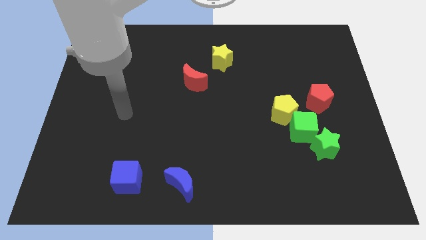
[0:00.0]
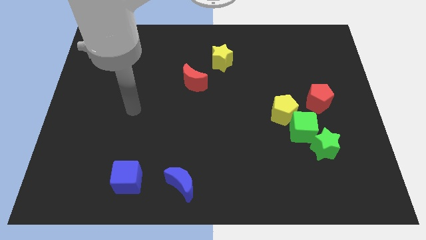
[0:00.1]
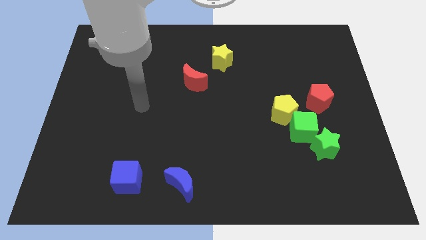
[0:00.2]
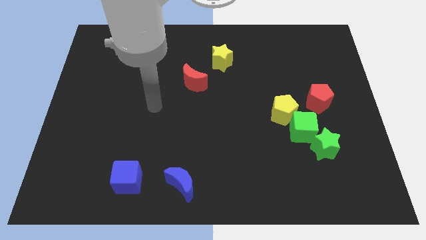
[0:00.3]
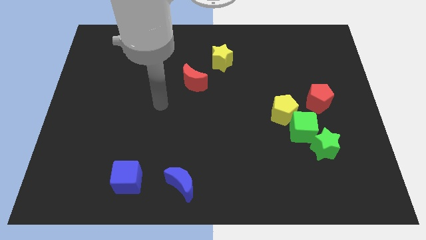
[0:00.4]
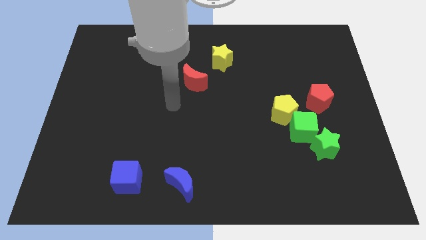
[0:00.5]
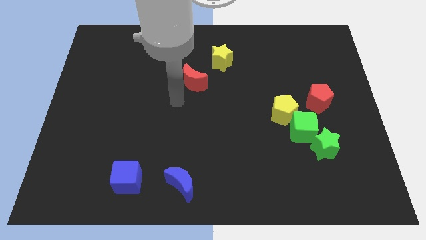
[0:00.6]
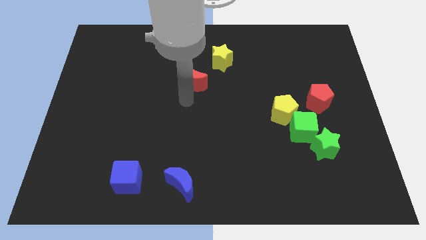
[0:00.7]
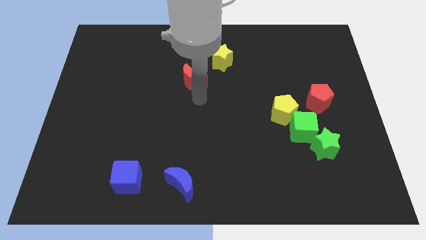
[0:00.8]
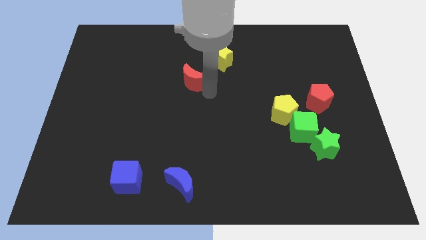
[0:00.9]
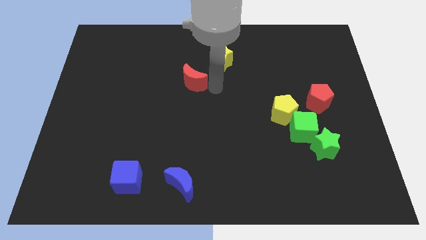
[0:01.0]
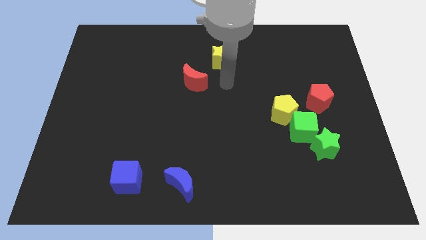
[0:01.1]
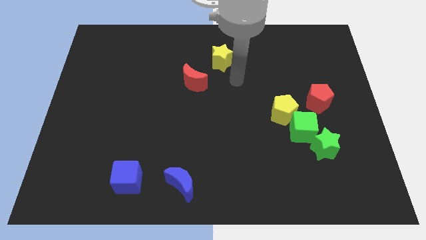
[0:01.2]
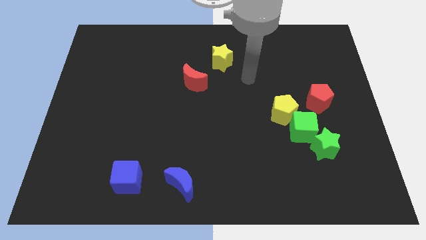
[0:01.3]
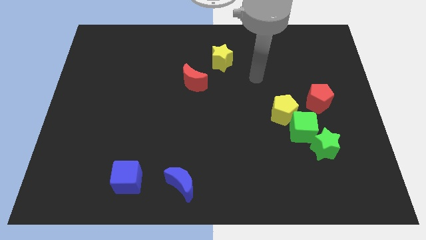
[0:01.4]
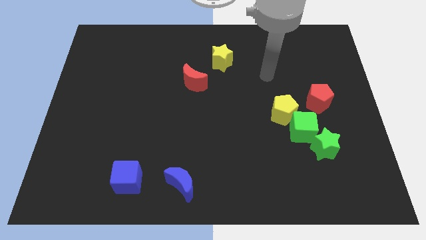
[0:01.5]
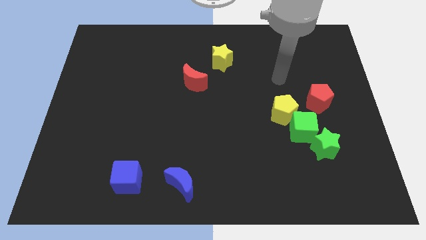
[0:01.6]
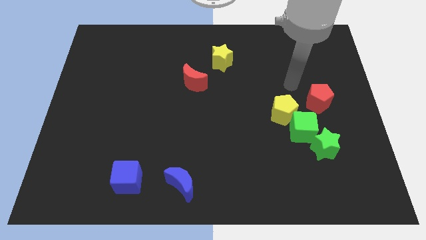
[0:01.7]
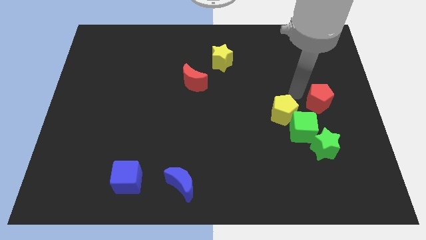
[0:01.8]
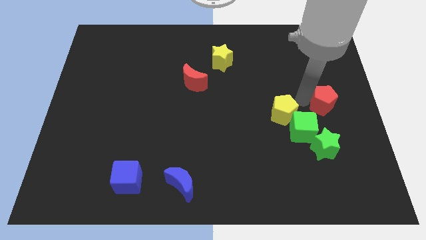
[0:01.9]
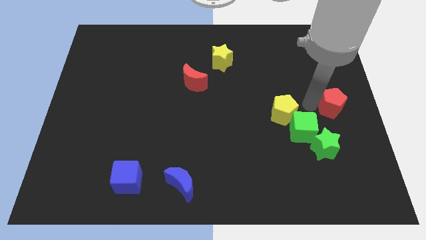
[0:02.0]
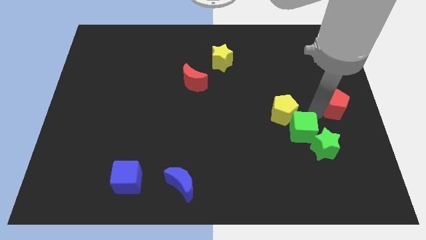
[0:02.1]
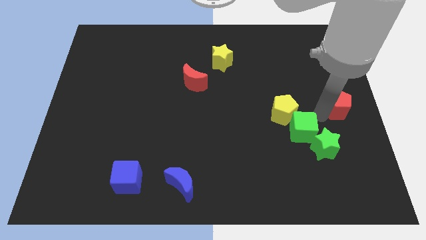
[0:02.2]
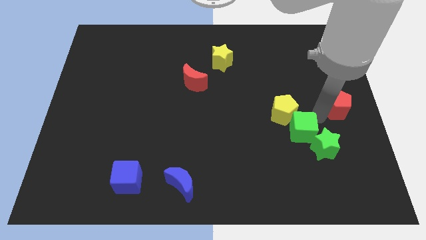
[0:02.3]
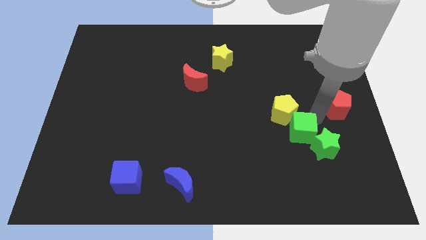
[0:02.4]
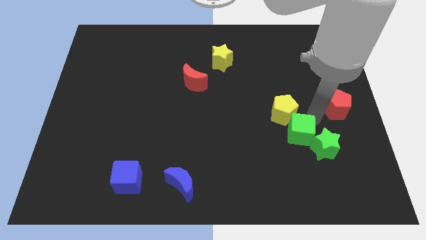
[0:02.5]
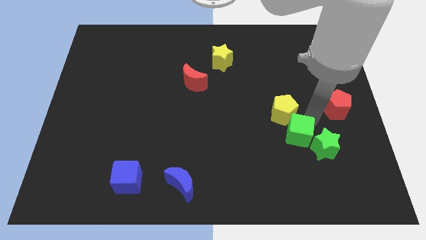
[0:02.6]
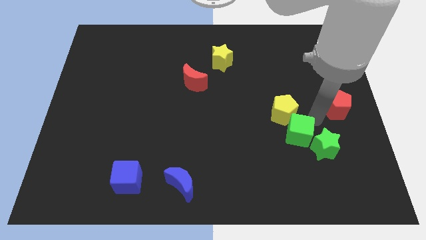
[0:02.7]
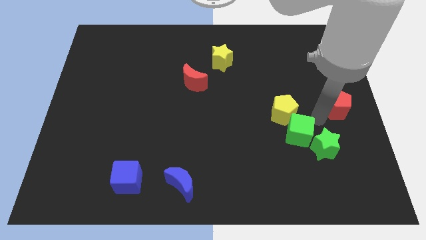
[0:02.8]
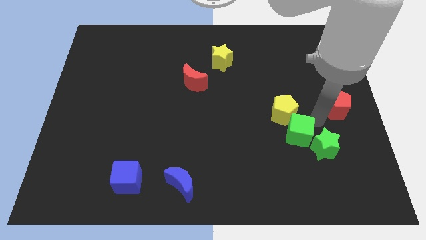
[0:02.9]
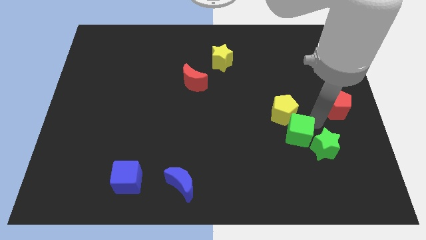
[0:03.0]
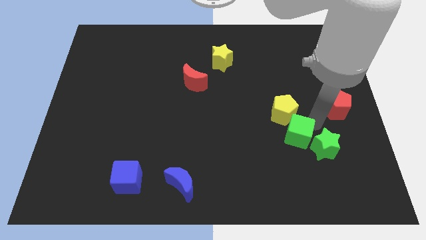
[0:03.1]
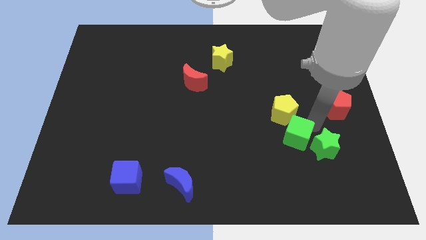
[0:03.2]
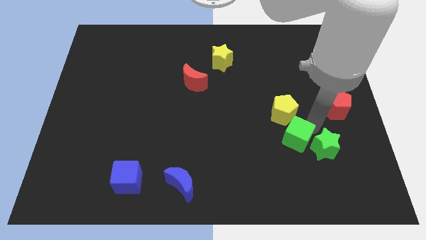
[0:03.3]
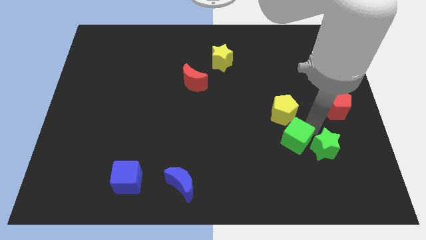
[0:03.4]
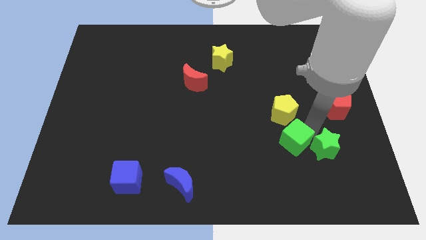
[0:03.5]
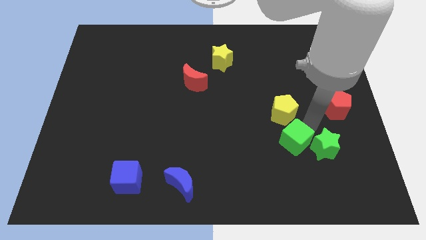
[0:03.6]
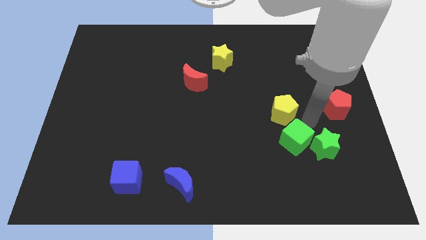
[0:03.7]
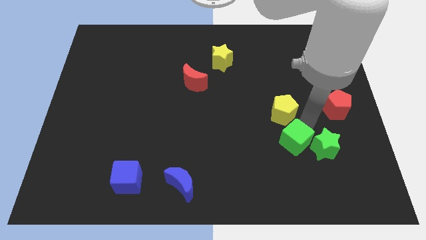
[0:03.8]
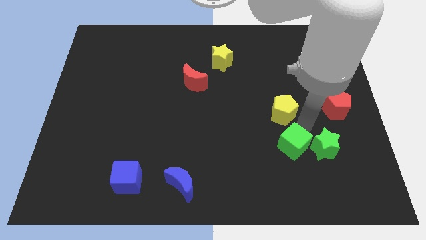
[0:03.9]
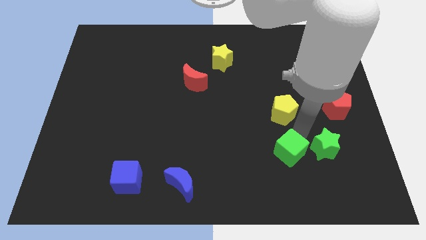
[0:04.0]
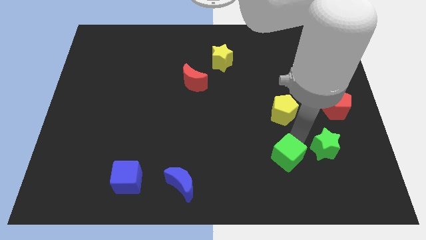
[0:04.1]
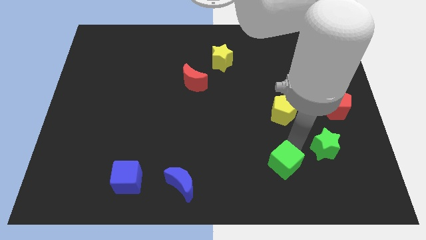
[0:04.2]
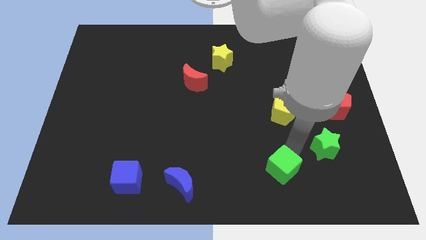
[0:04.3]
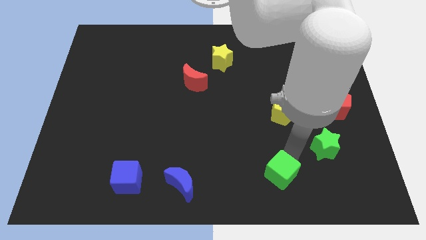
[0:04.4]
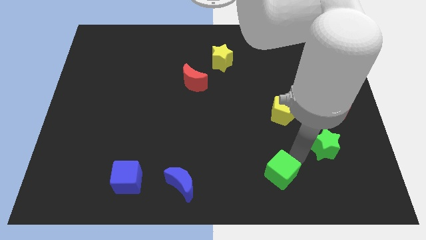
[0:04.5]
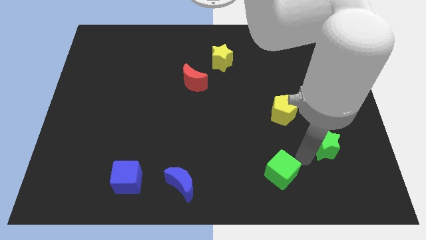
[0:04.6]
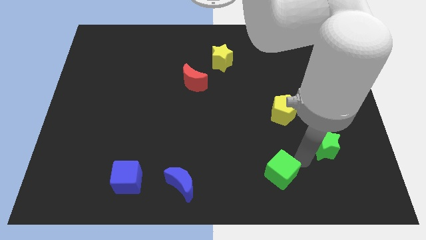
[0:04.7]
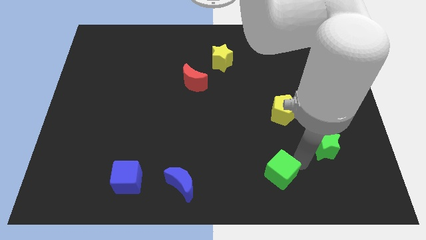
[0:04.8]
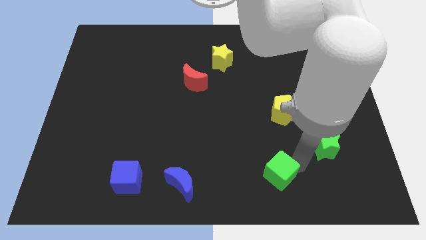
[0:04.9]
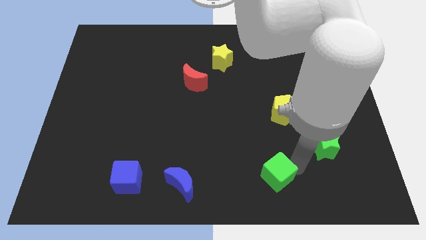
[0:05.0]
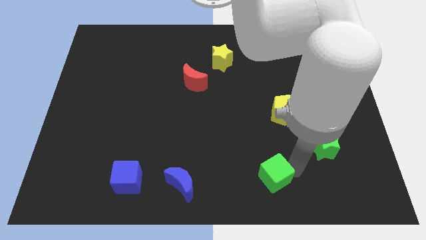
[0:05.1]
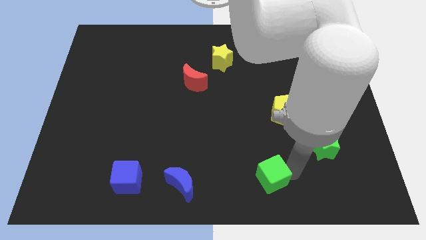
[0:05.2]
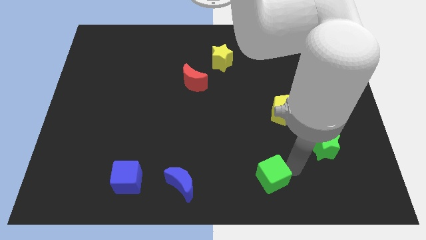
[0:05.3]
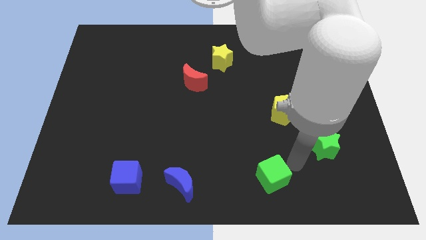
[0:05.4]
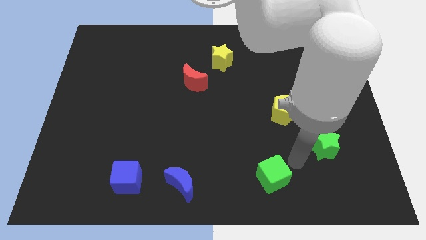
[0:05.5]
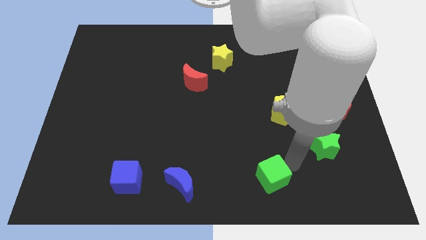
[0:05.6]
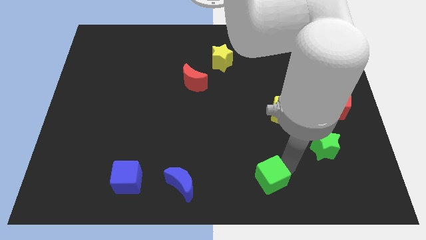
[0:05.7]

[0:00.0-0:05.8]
put the green cube to the bottom side

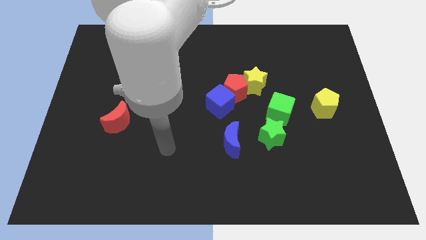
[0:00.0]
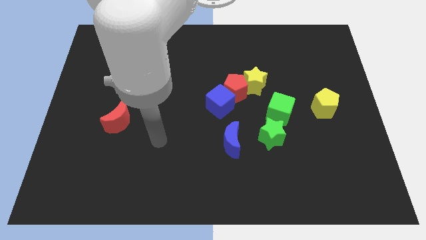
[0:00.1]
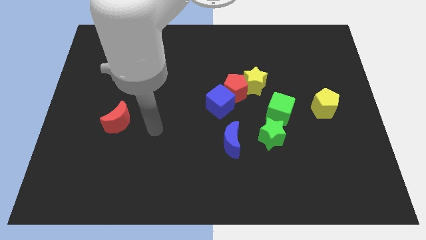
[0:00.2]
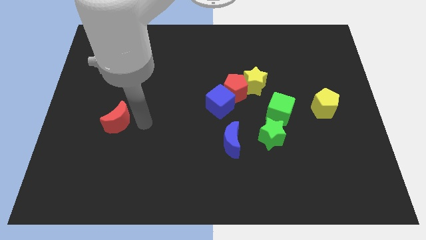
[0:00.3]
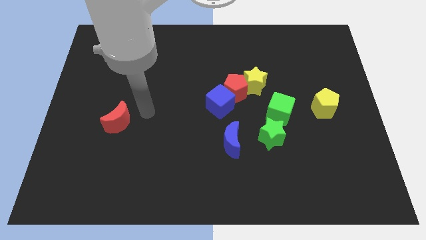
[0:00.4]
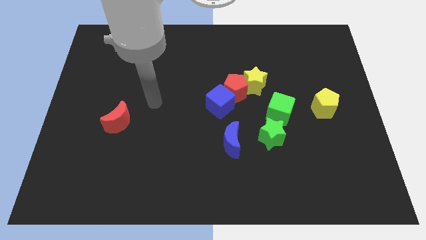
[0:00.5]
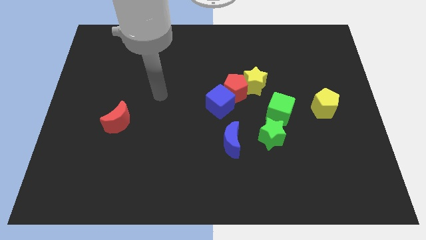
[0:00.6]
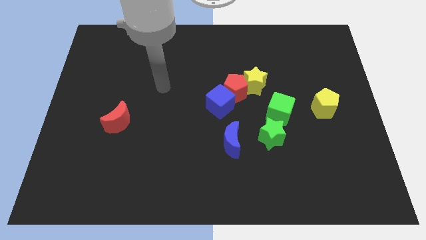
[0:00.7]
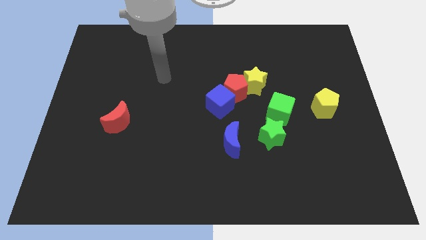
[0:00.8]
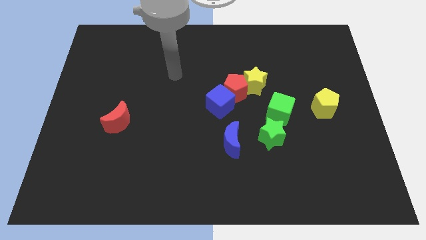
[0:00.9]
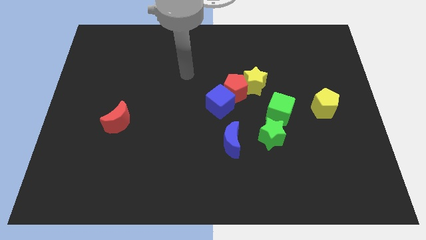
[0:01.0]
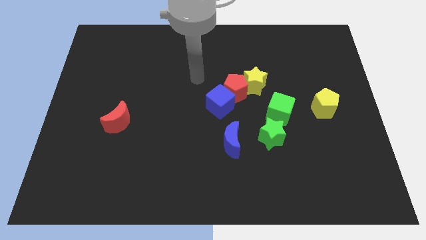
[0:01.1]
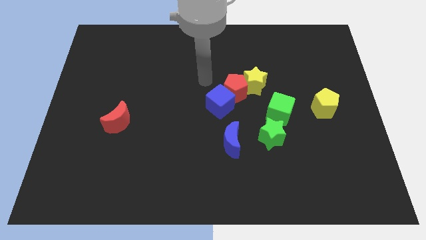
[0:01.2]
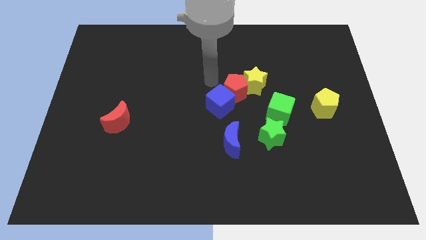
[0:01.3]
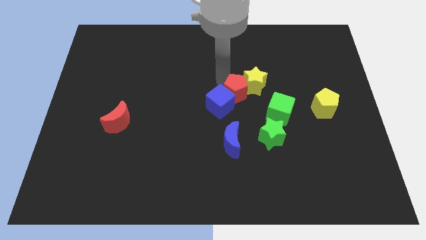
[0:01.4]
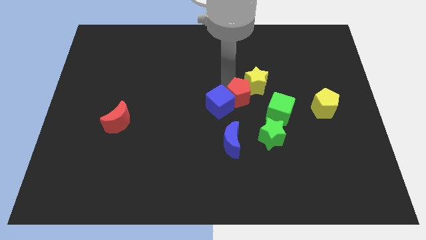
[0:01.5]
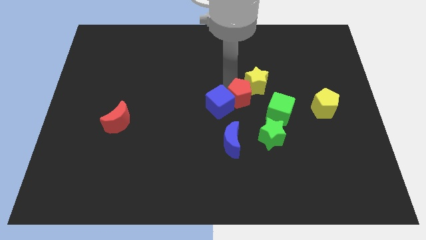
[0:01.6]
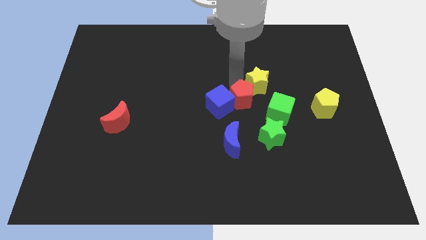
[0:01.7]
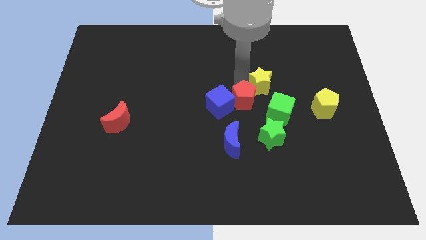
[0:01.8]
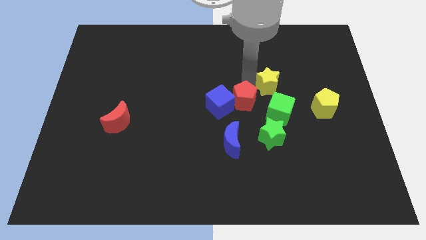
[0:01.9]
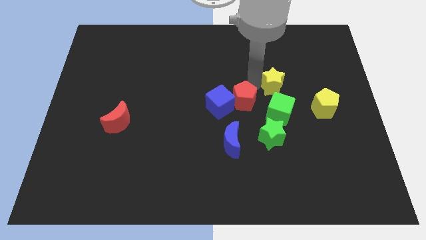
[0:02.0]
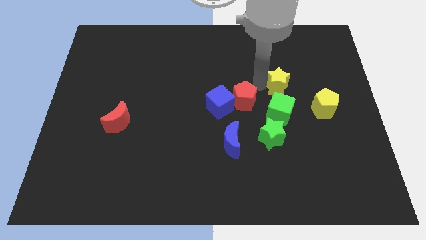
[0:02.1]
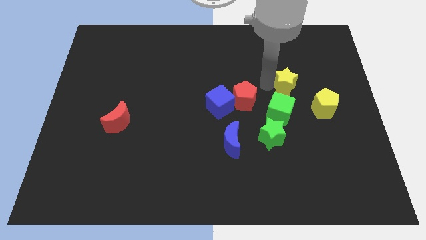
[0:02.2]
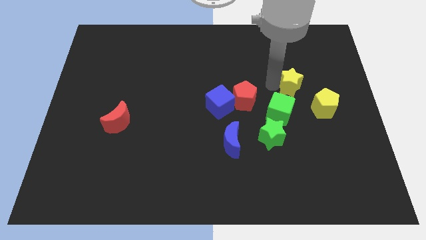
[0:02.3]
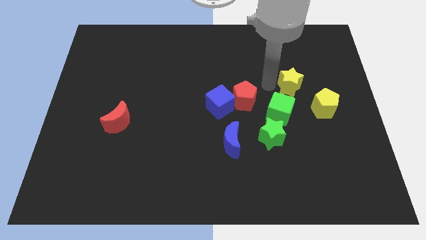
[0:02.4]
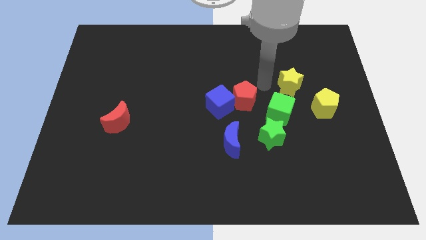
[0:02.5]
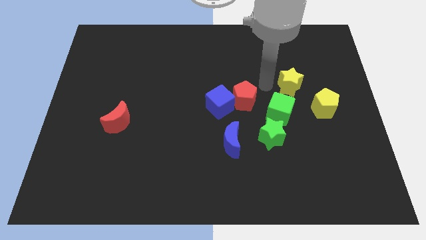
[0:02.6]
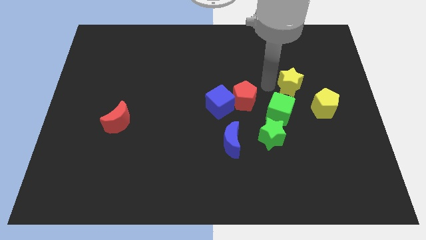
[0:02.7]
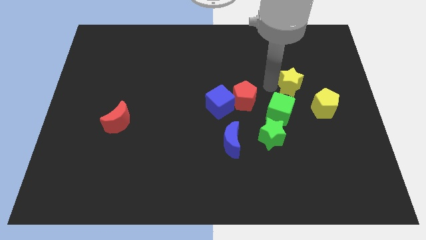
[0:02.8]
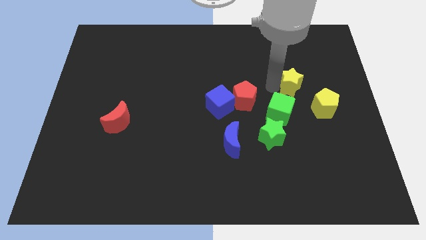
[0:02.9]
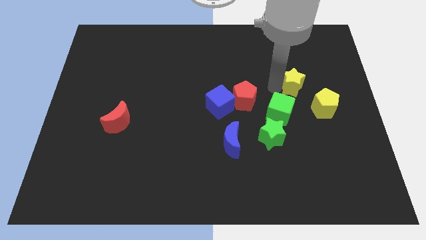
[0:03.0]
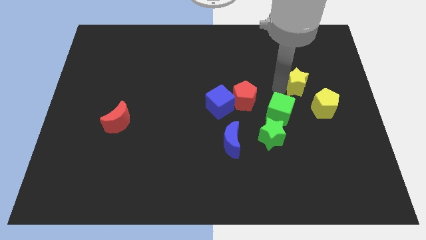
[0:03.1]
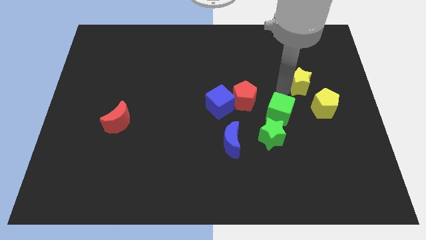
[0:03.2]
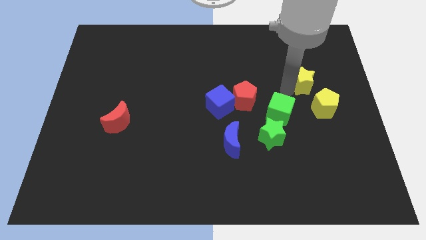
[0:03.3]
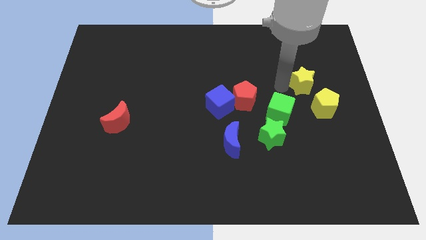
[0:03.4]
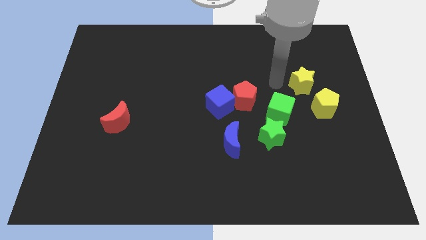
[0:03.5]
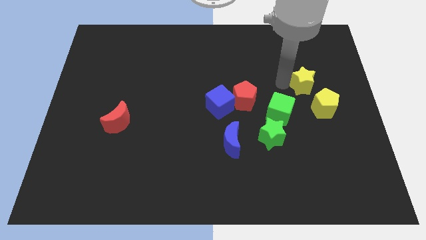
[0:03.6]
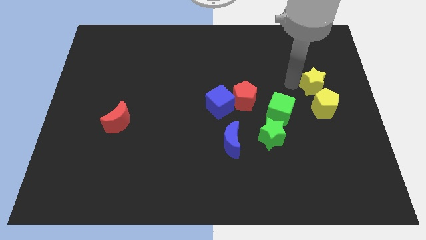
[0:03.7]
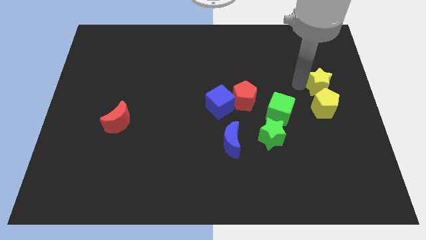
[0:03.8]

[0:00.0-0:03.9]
move the yellow star to the right side of the board
